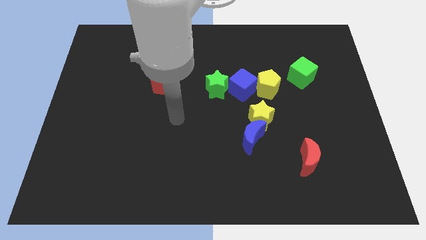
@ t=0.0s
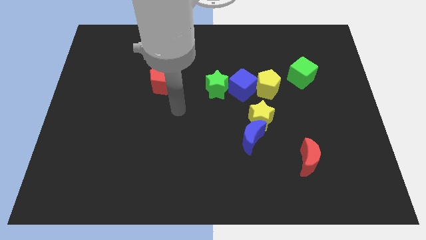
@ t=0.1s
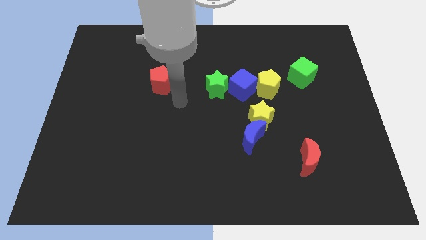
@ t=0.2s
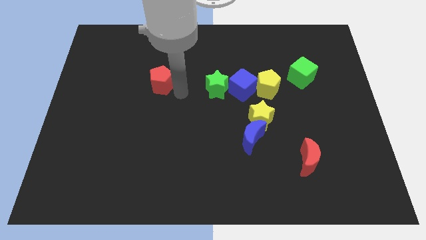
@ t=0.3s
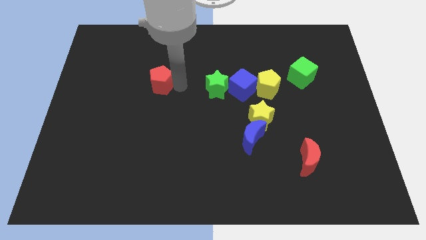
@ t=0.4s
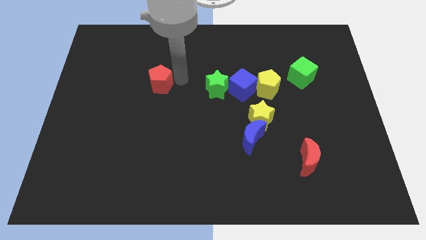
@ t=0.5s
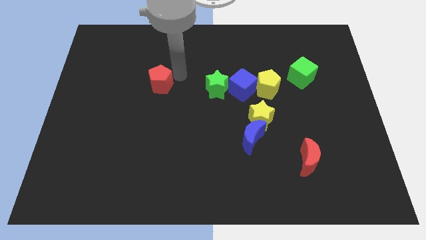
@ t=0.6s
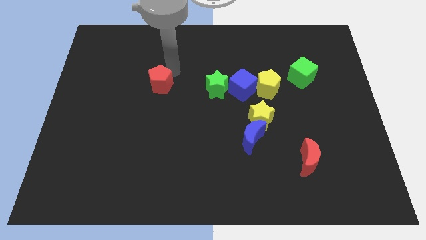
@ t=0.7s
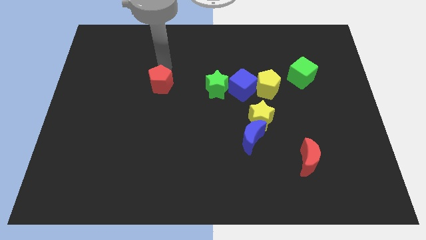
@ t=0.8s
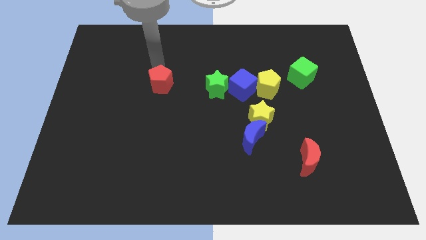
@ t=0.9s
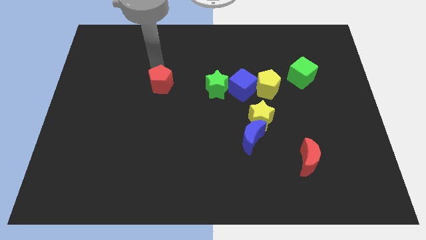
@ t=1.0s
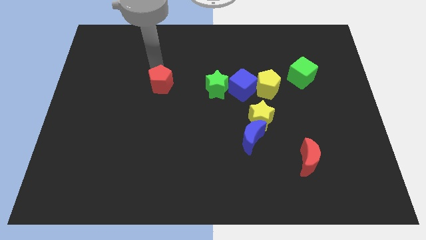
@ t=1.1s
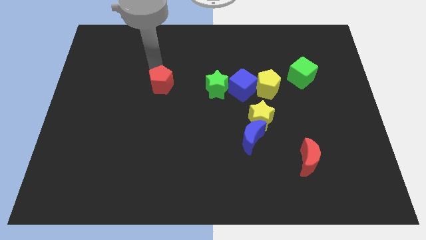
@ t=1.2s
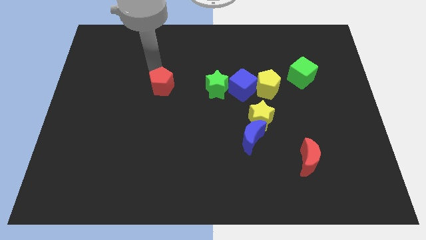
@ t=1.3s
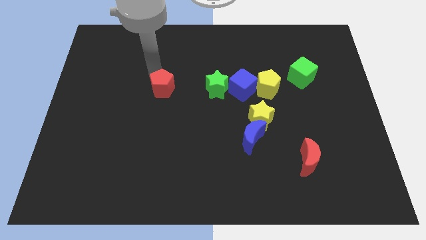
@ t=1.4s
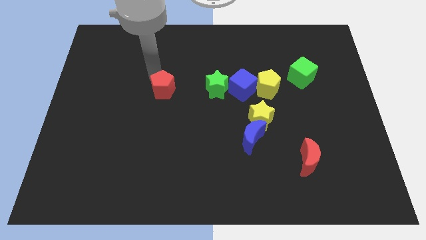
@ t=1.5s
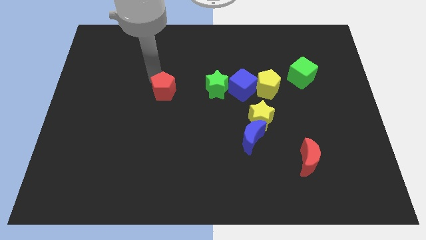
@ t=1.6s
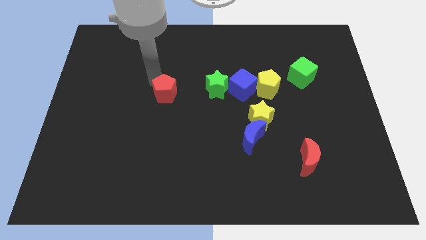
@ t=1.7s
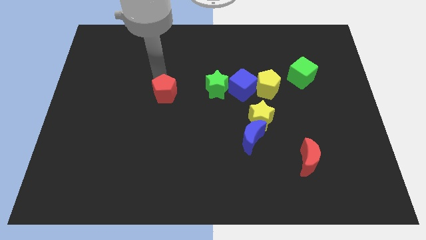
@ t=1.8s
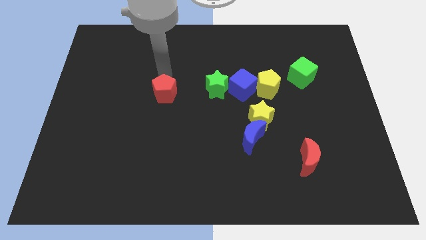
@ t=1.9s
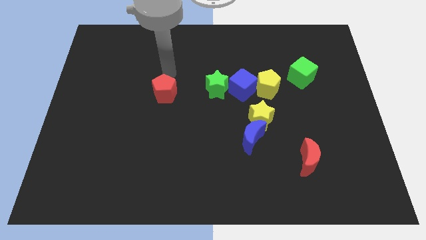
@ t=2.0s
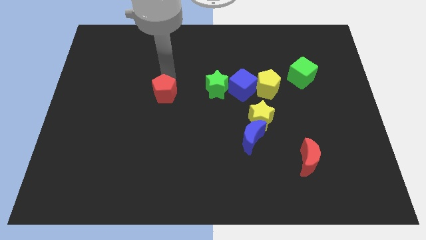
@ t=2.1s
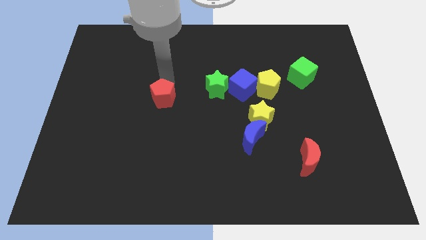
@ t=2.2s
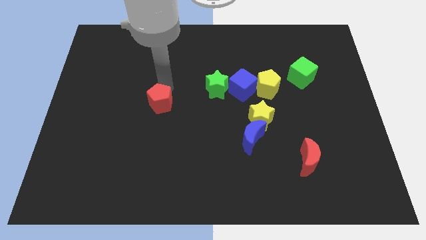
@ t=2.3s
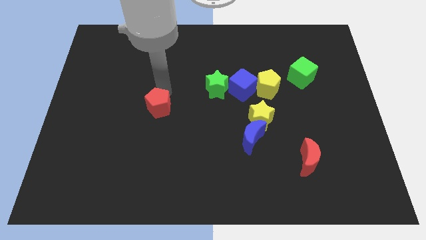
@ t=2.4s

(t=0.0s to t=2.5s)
slightly slide the red pentagon down

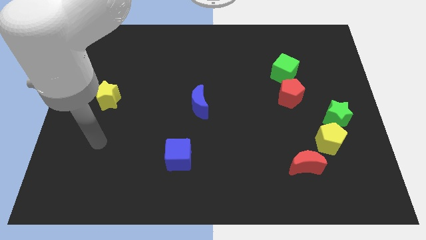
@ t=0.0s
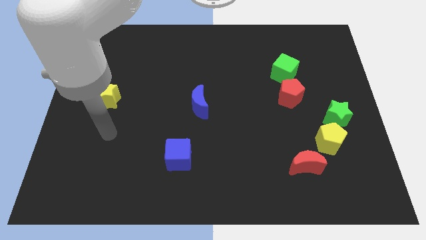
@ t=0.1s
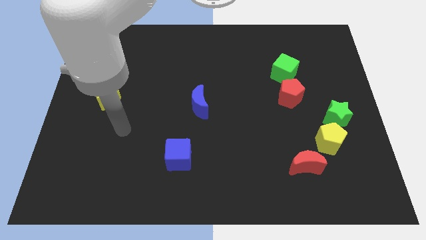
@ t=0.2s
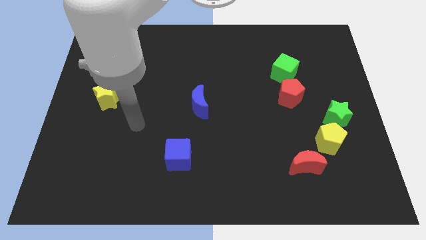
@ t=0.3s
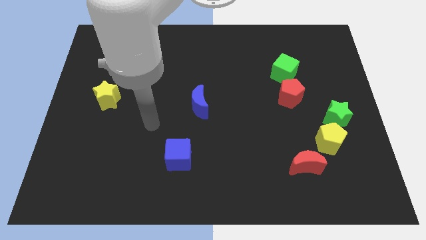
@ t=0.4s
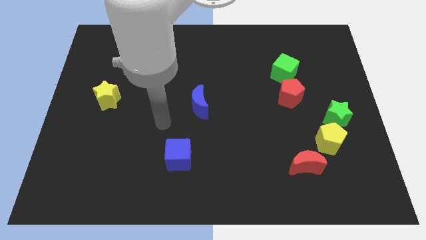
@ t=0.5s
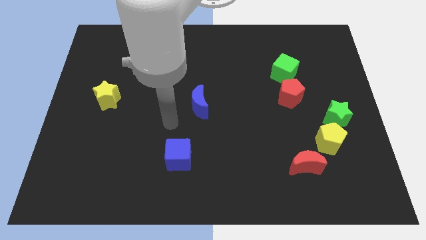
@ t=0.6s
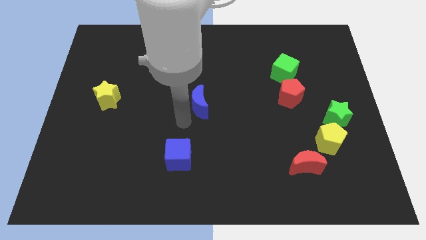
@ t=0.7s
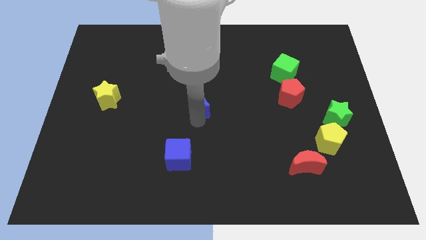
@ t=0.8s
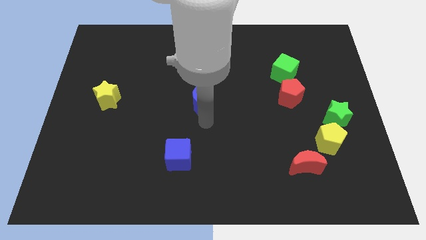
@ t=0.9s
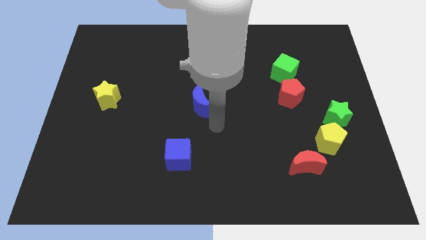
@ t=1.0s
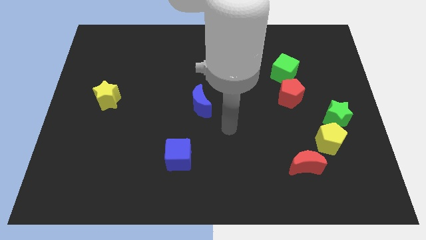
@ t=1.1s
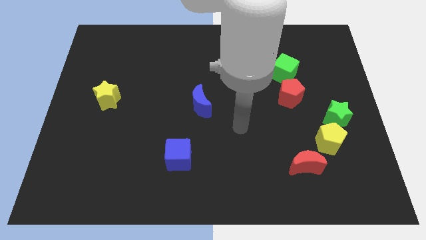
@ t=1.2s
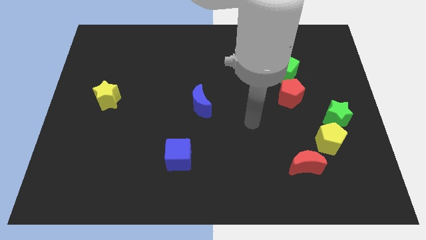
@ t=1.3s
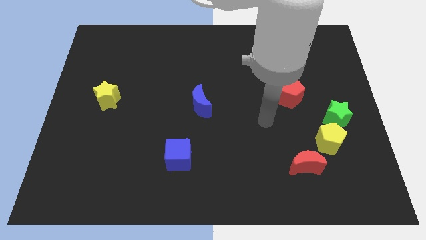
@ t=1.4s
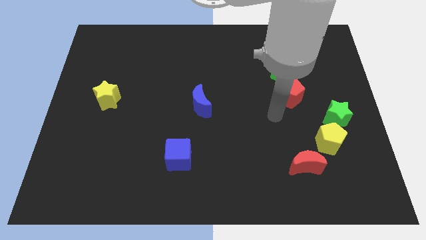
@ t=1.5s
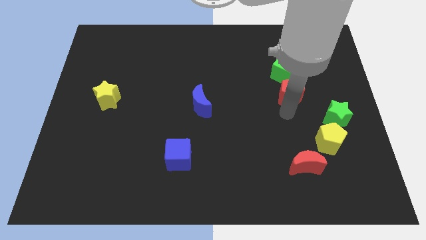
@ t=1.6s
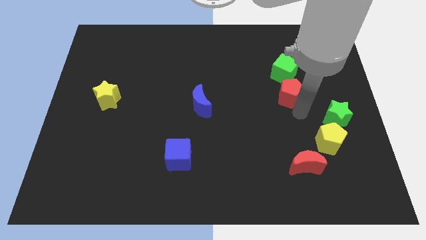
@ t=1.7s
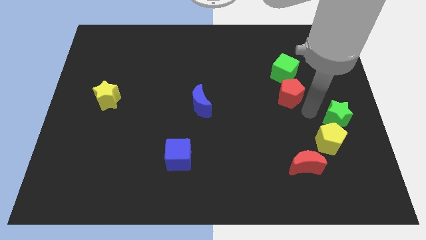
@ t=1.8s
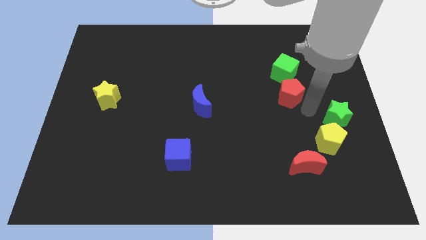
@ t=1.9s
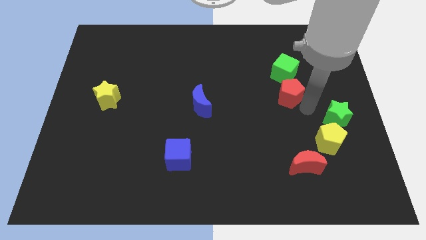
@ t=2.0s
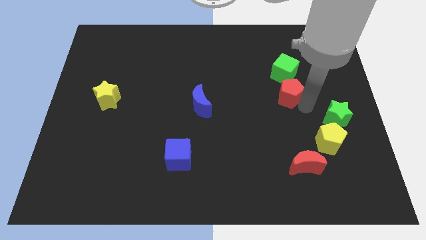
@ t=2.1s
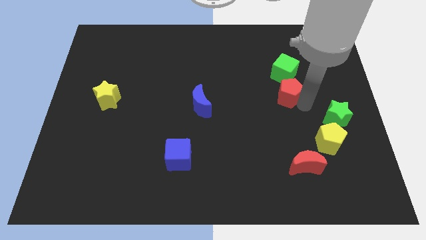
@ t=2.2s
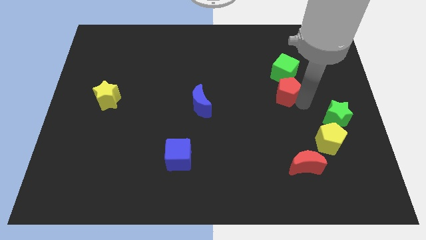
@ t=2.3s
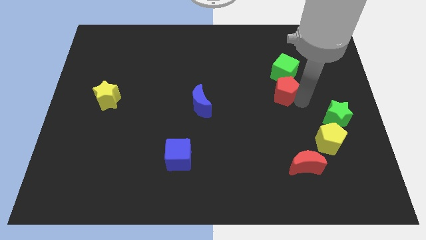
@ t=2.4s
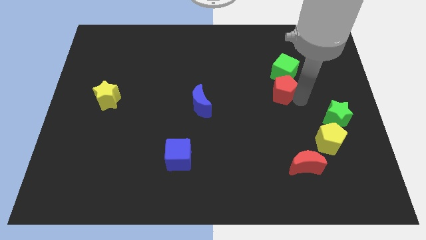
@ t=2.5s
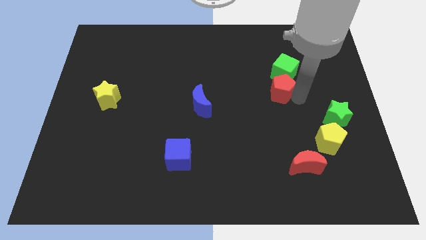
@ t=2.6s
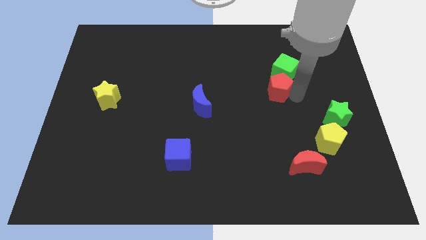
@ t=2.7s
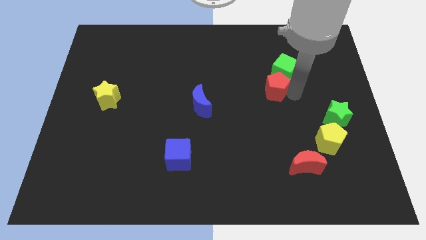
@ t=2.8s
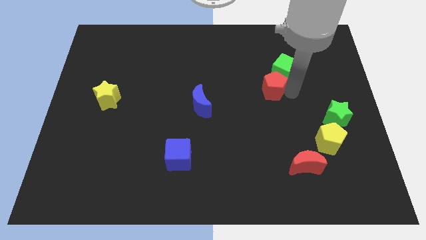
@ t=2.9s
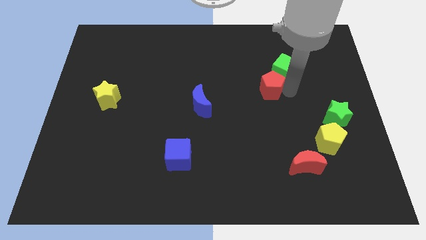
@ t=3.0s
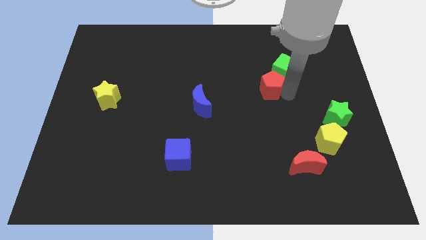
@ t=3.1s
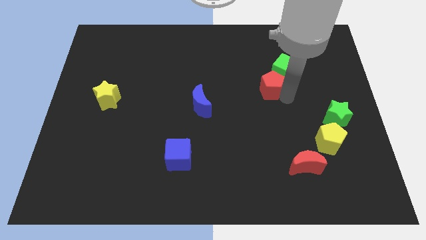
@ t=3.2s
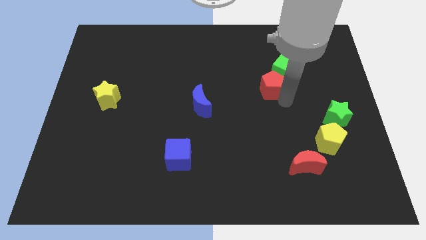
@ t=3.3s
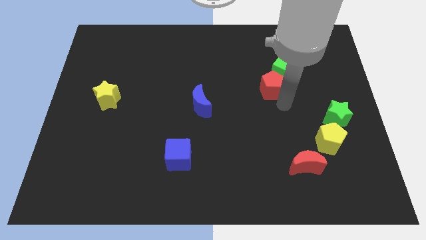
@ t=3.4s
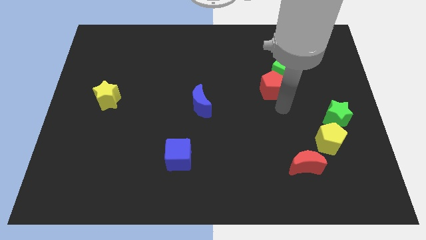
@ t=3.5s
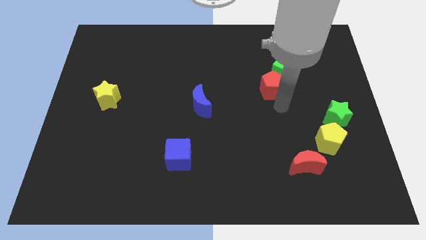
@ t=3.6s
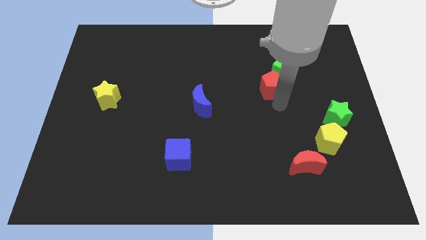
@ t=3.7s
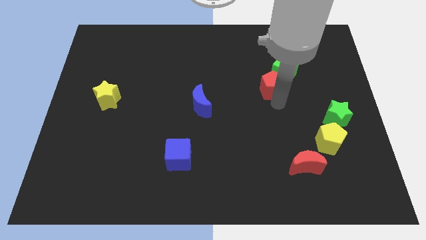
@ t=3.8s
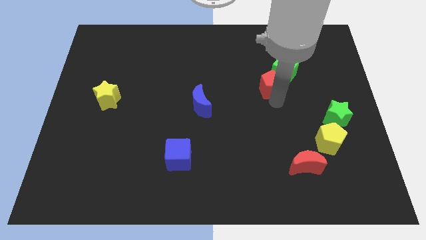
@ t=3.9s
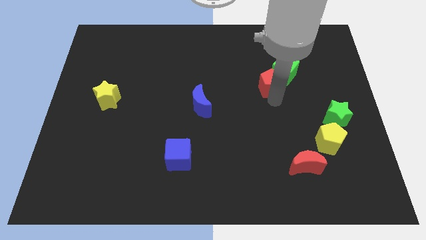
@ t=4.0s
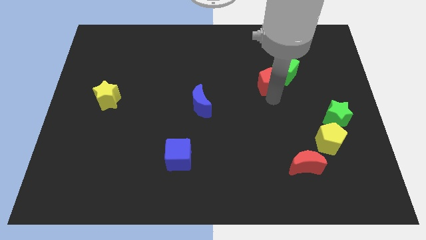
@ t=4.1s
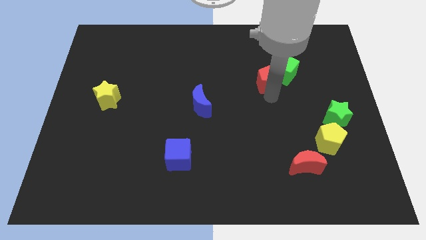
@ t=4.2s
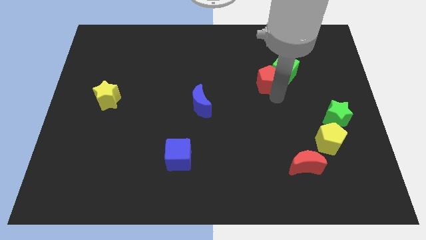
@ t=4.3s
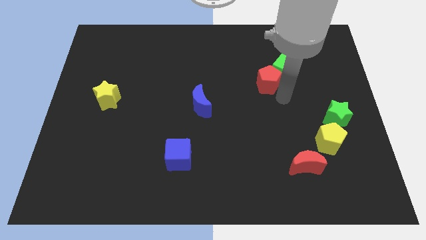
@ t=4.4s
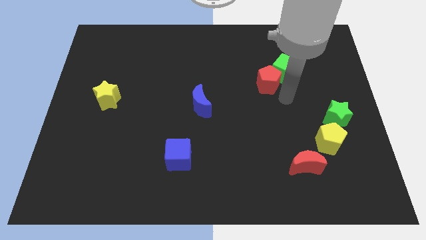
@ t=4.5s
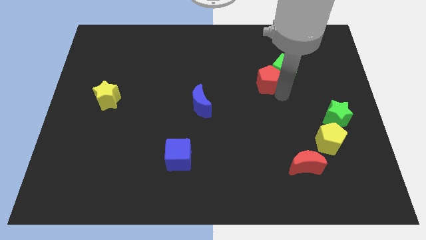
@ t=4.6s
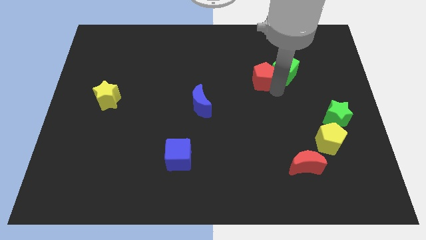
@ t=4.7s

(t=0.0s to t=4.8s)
slightly move the red pentagon up and to the left

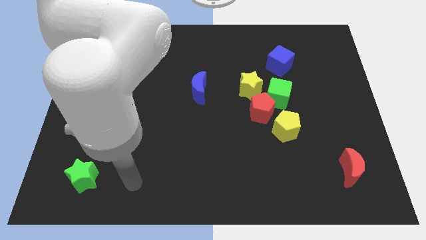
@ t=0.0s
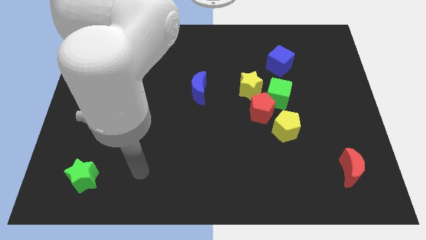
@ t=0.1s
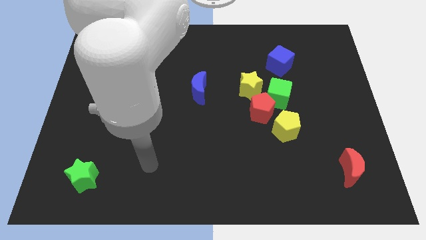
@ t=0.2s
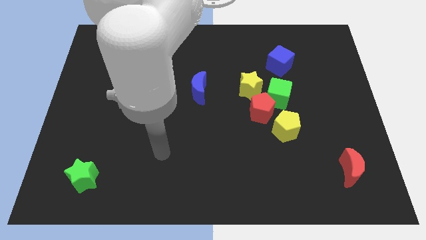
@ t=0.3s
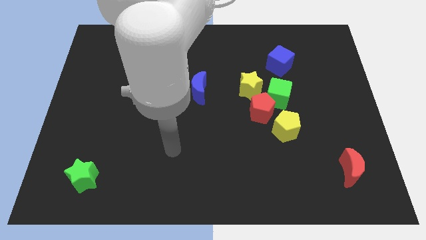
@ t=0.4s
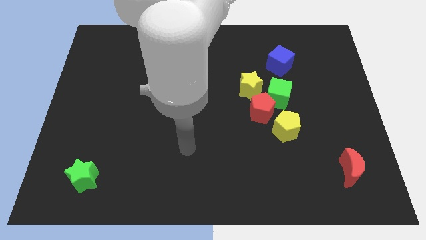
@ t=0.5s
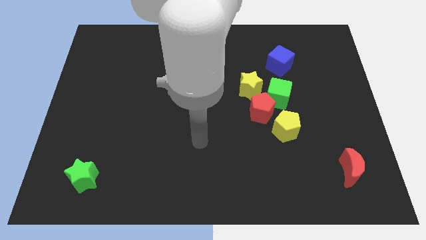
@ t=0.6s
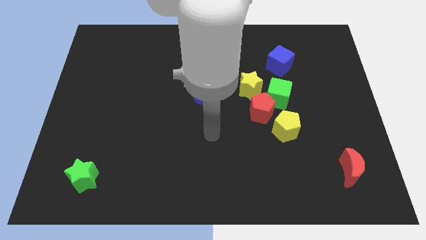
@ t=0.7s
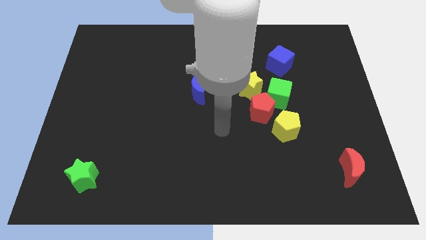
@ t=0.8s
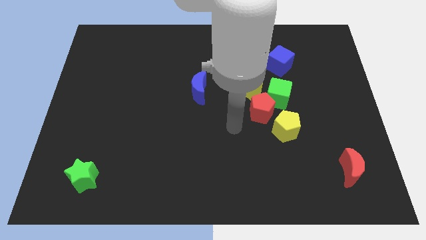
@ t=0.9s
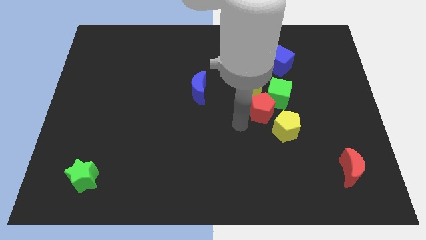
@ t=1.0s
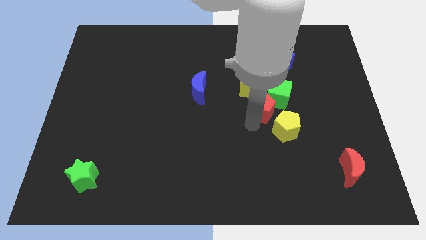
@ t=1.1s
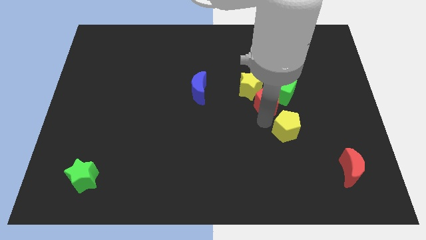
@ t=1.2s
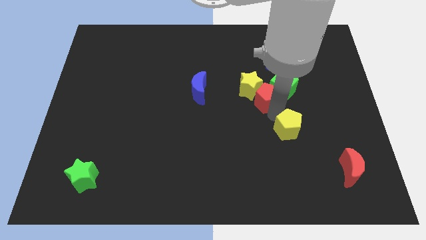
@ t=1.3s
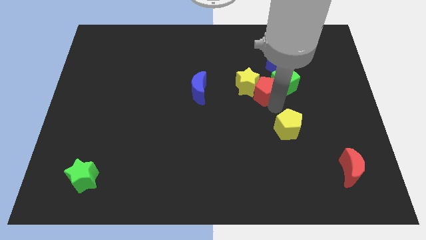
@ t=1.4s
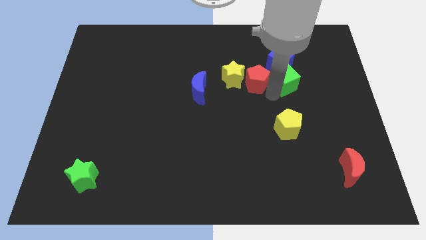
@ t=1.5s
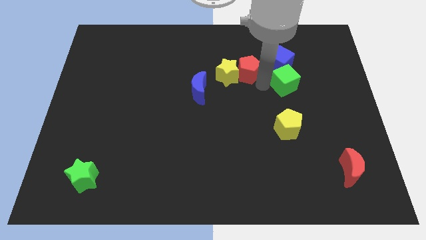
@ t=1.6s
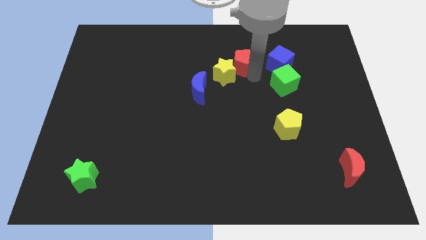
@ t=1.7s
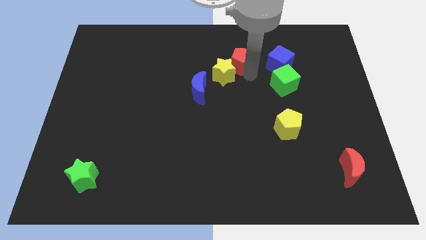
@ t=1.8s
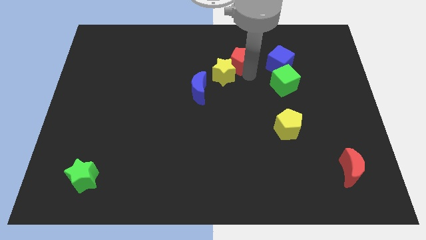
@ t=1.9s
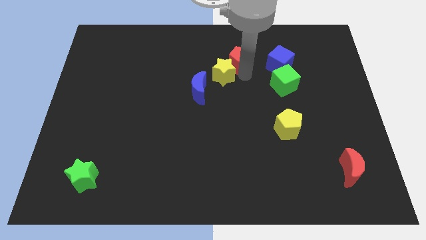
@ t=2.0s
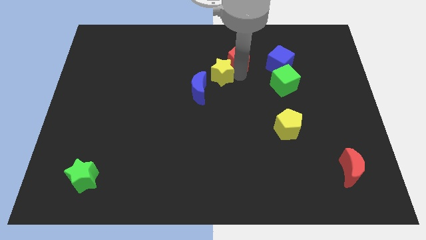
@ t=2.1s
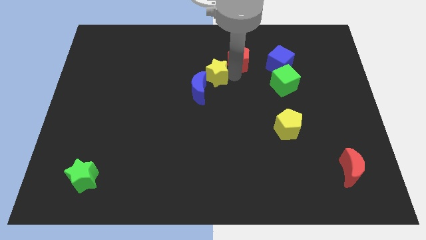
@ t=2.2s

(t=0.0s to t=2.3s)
slightly push the yellow star left
